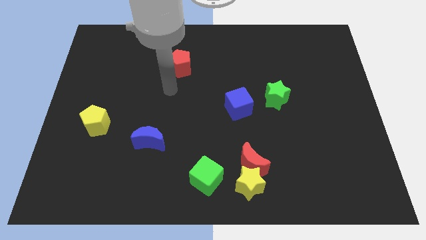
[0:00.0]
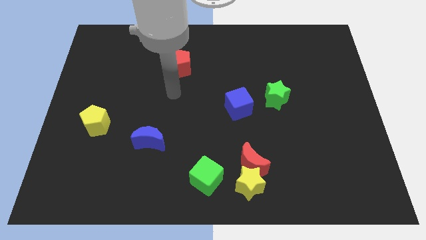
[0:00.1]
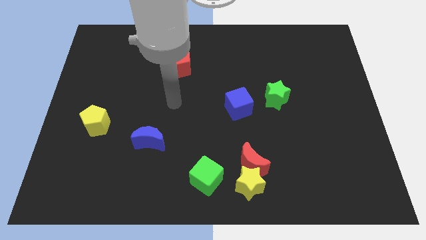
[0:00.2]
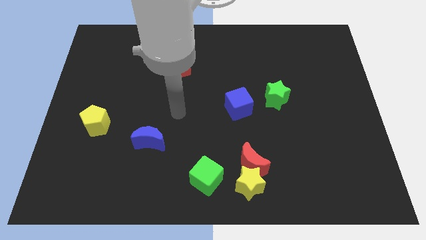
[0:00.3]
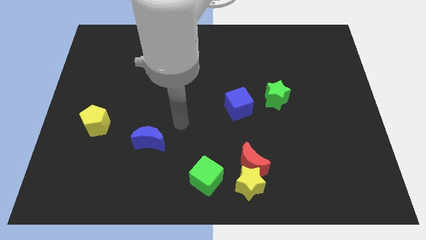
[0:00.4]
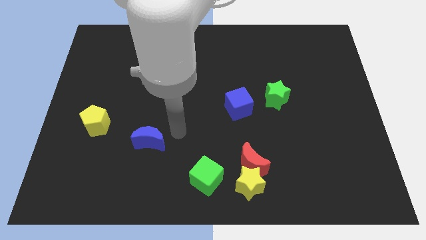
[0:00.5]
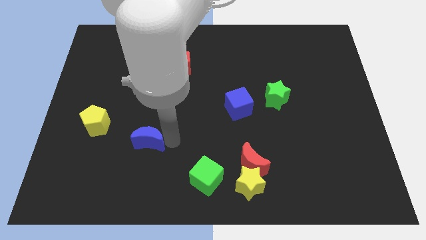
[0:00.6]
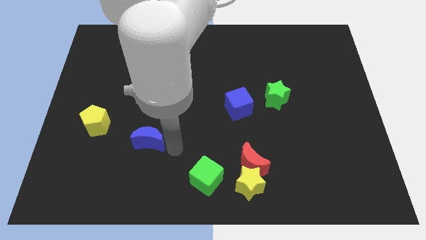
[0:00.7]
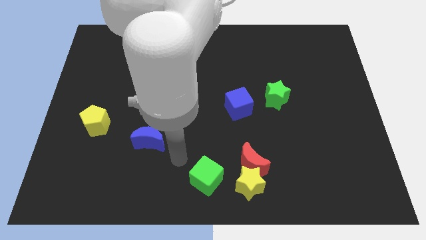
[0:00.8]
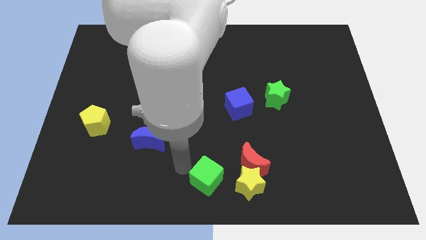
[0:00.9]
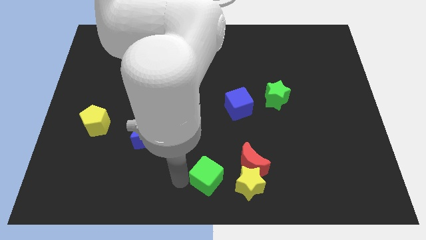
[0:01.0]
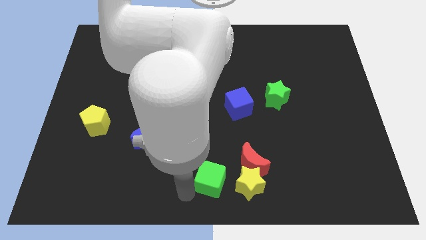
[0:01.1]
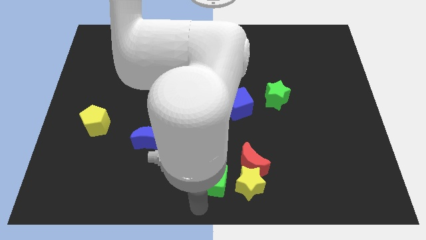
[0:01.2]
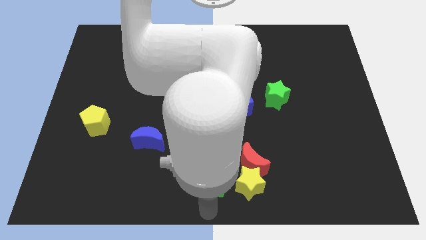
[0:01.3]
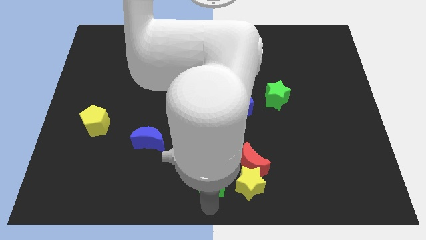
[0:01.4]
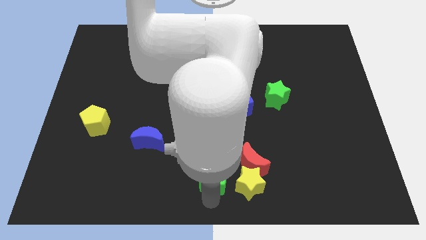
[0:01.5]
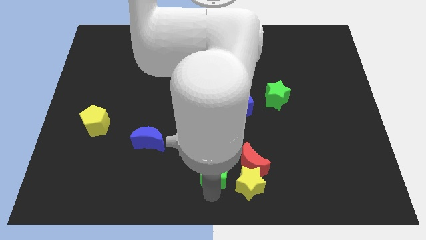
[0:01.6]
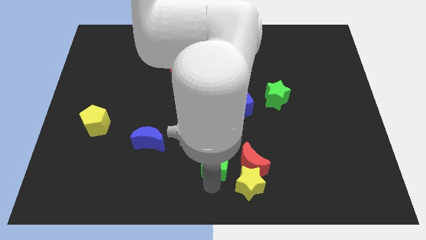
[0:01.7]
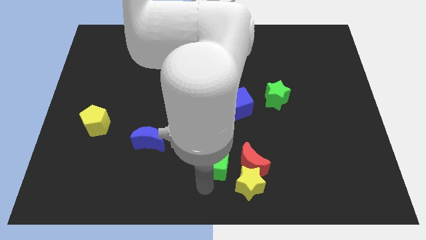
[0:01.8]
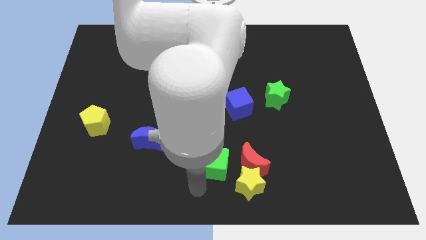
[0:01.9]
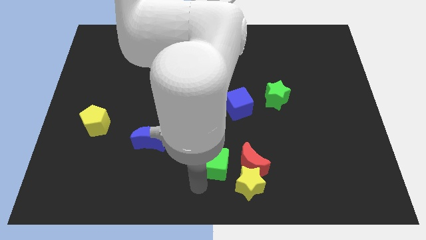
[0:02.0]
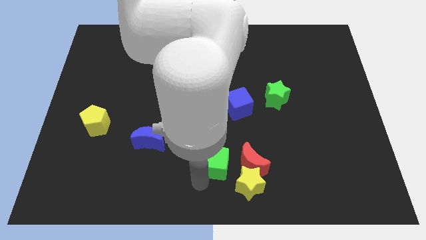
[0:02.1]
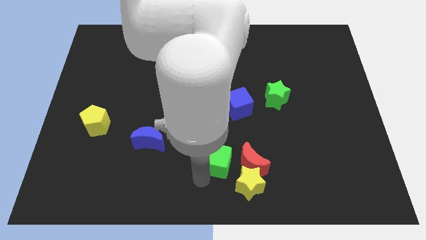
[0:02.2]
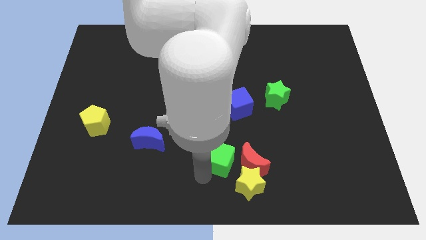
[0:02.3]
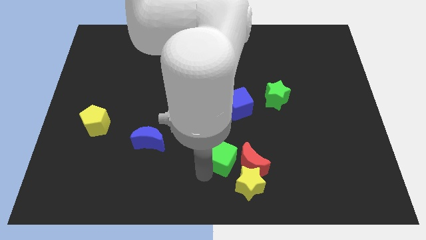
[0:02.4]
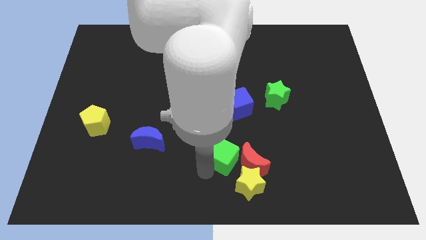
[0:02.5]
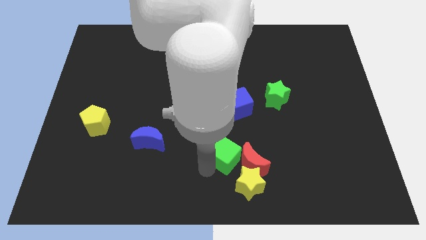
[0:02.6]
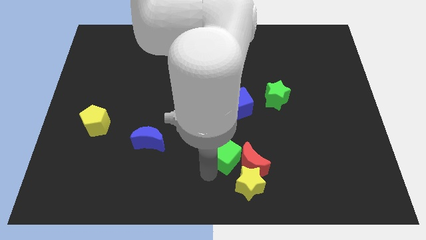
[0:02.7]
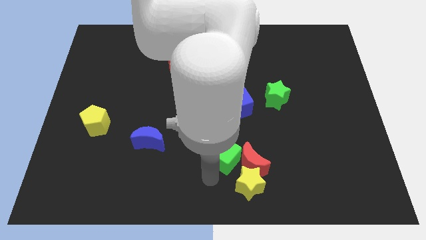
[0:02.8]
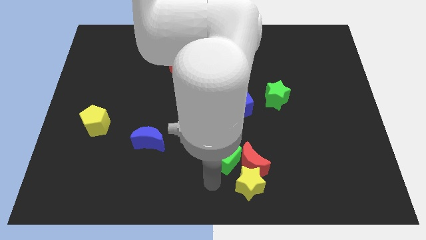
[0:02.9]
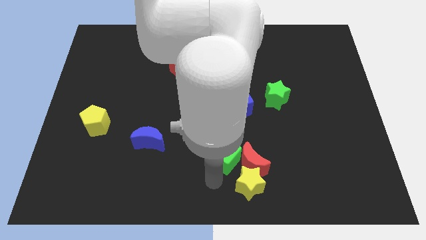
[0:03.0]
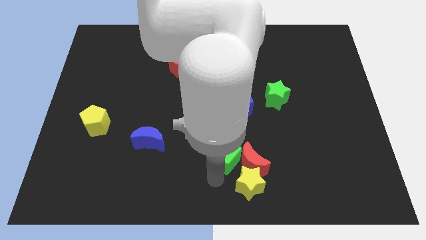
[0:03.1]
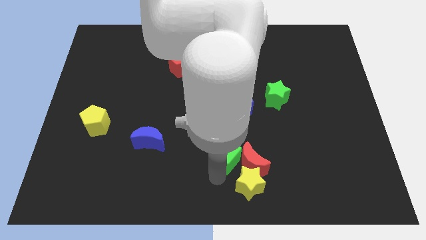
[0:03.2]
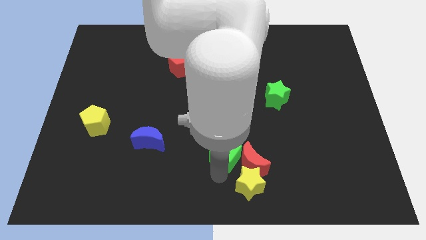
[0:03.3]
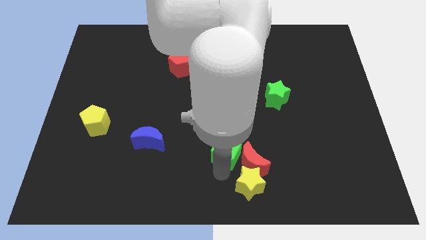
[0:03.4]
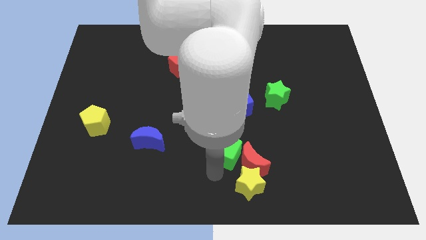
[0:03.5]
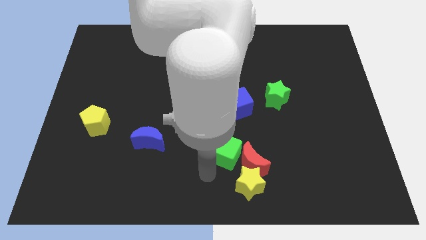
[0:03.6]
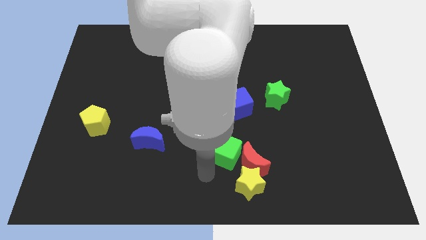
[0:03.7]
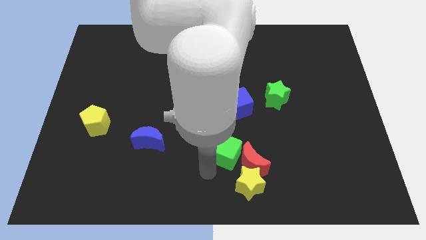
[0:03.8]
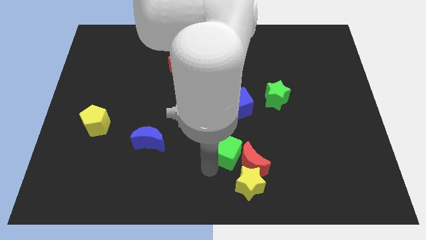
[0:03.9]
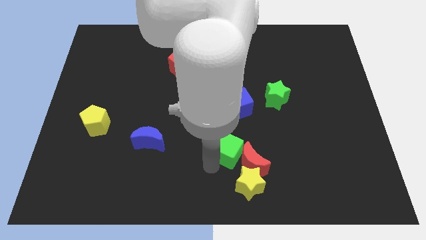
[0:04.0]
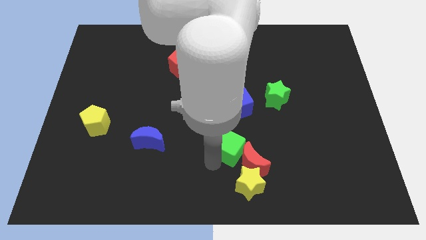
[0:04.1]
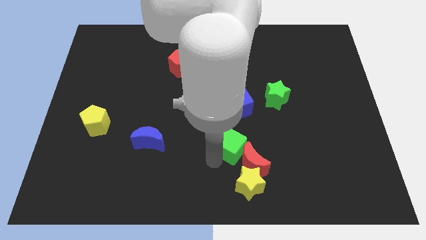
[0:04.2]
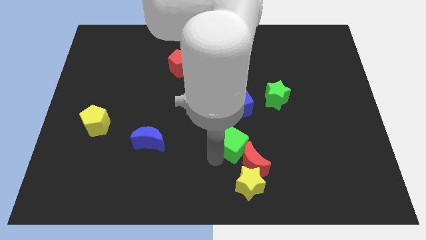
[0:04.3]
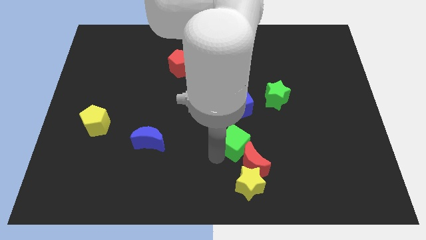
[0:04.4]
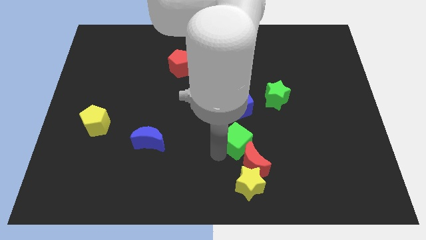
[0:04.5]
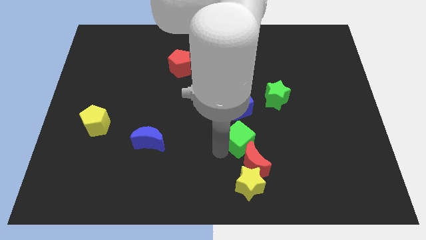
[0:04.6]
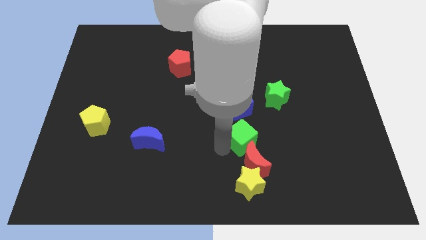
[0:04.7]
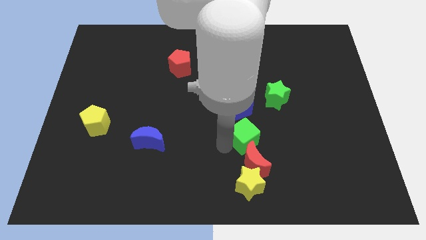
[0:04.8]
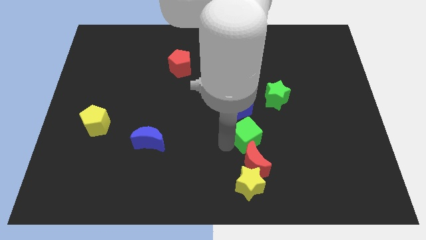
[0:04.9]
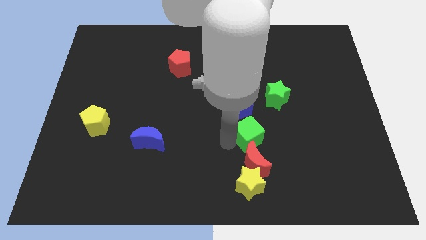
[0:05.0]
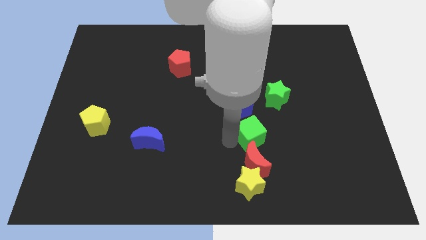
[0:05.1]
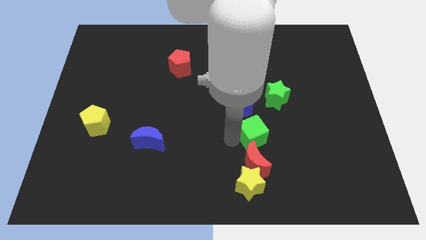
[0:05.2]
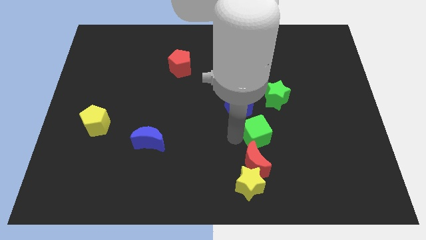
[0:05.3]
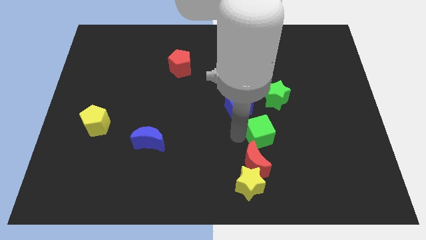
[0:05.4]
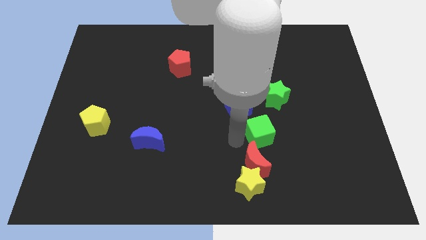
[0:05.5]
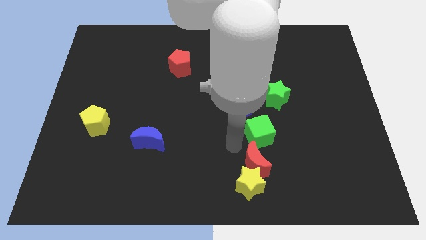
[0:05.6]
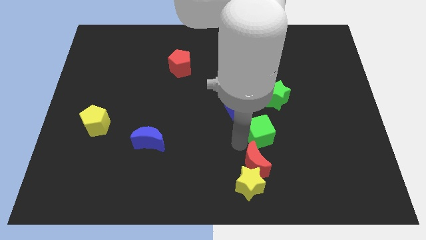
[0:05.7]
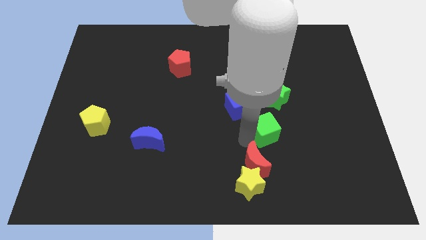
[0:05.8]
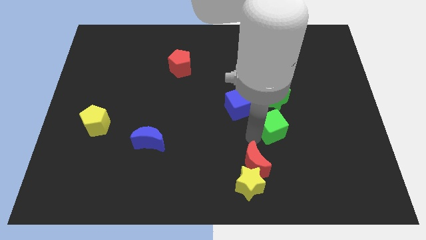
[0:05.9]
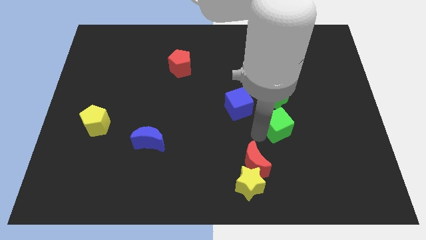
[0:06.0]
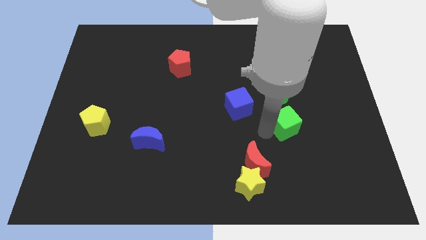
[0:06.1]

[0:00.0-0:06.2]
push the green cube to the bottom right side of the green star

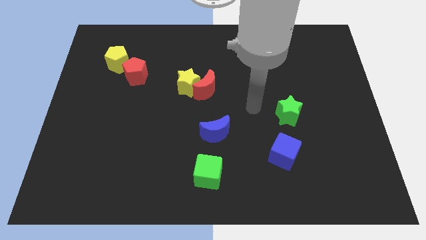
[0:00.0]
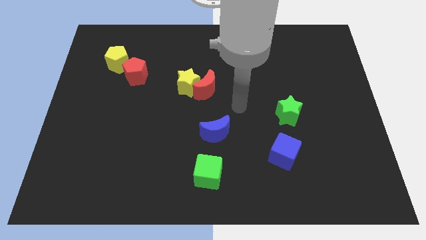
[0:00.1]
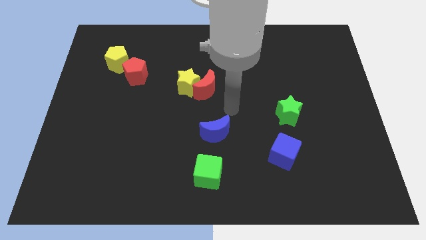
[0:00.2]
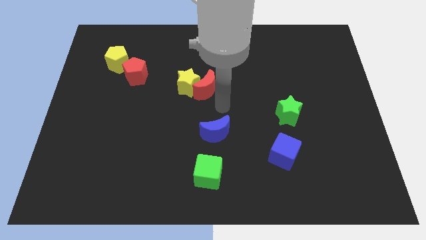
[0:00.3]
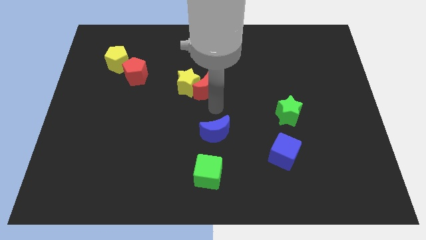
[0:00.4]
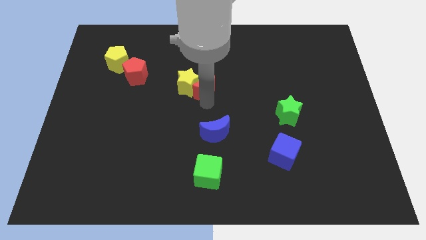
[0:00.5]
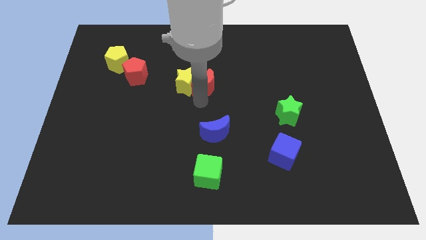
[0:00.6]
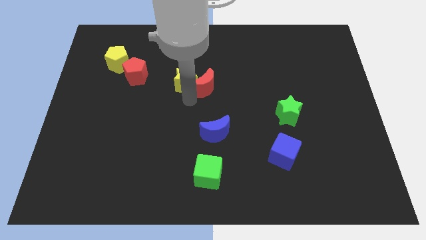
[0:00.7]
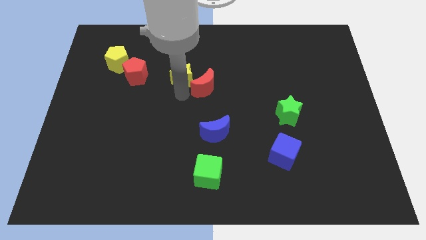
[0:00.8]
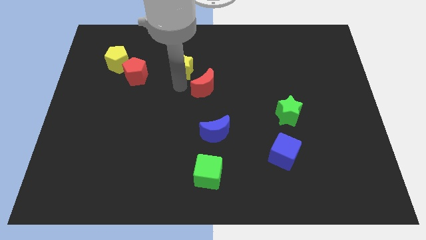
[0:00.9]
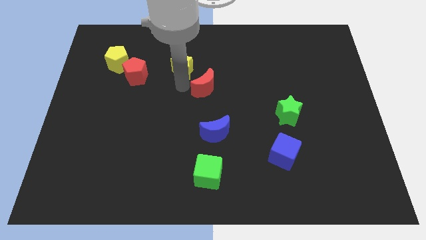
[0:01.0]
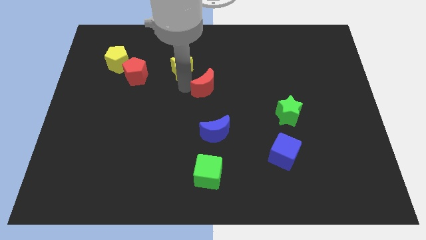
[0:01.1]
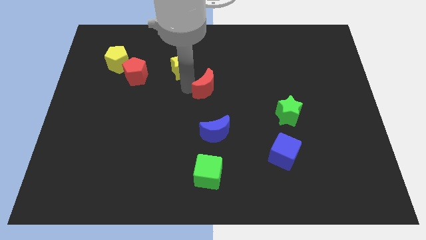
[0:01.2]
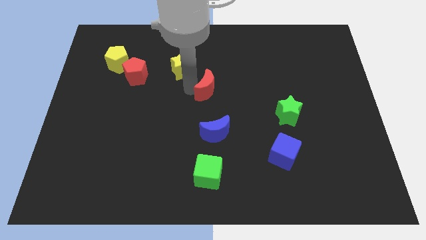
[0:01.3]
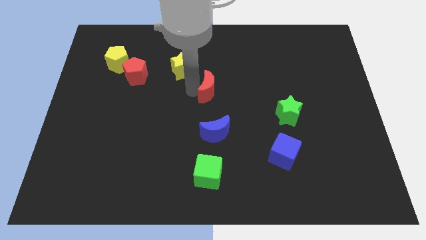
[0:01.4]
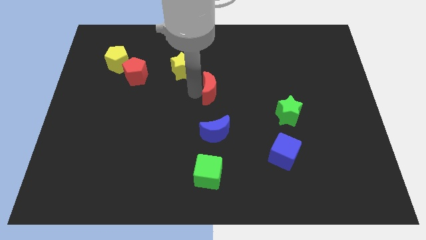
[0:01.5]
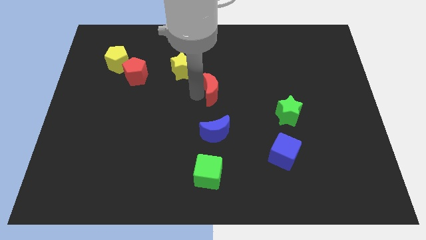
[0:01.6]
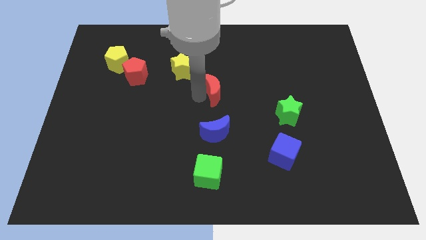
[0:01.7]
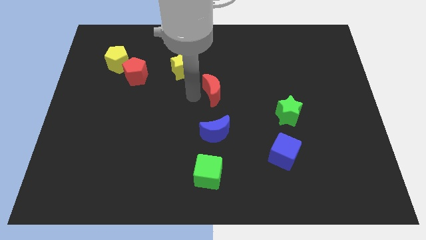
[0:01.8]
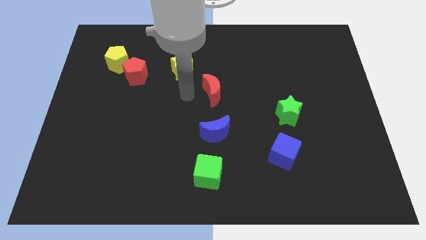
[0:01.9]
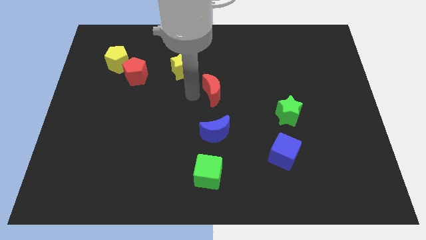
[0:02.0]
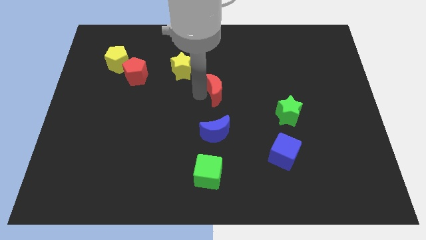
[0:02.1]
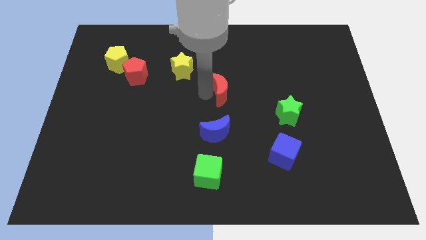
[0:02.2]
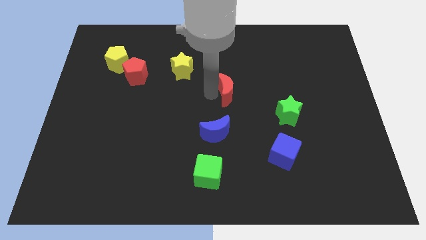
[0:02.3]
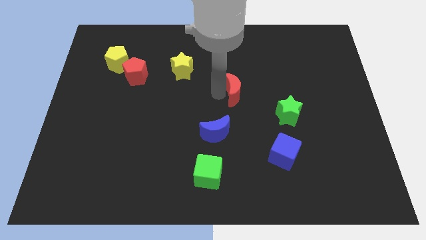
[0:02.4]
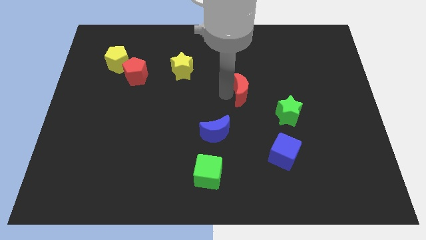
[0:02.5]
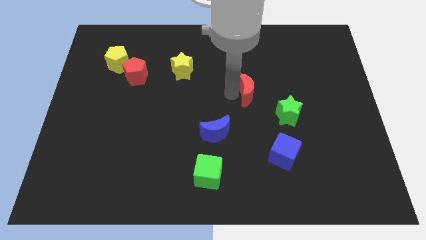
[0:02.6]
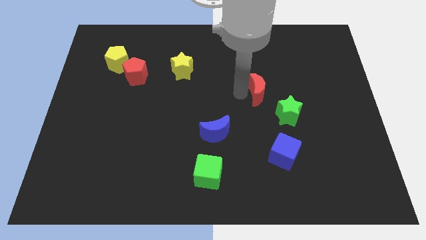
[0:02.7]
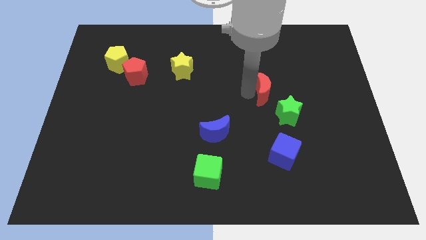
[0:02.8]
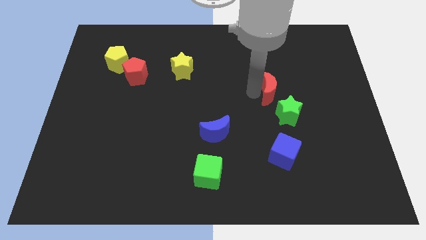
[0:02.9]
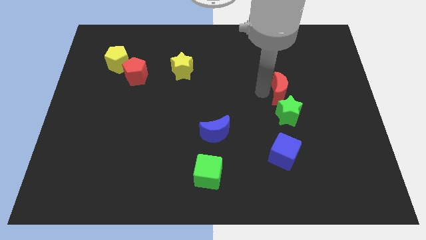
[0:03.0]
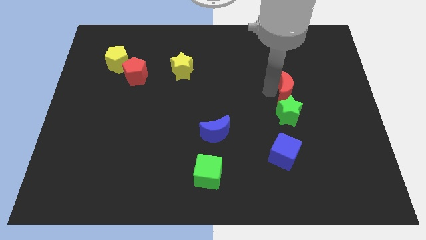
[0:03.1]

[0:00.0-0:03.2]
slide the red moon diagonally up and to the right of the green star
